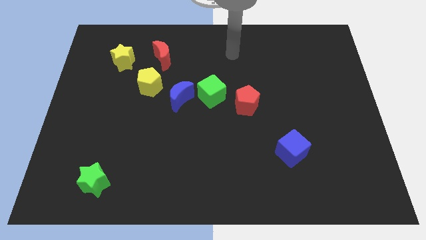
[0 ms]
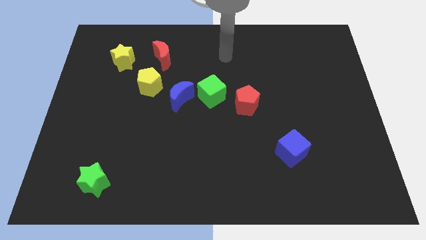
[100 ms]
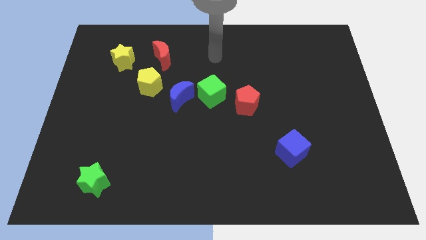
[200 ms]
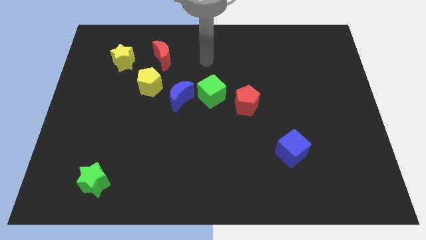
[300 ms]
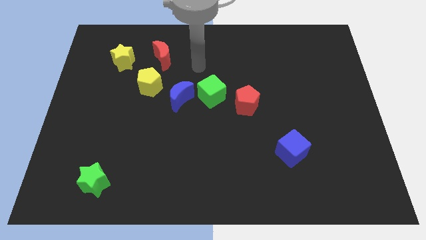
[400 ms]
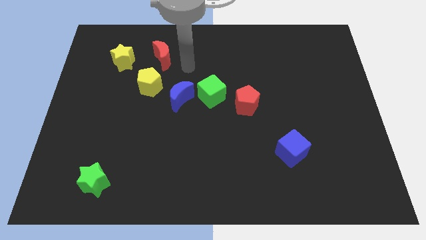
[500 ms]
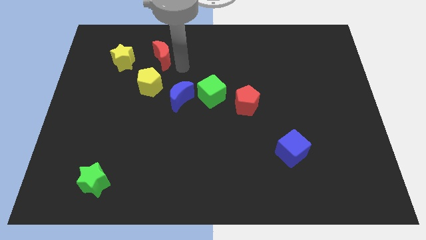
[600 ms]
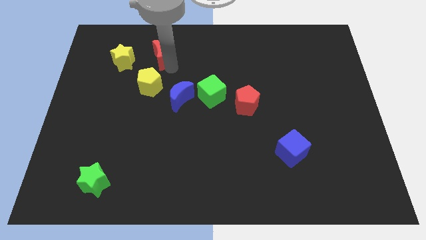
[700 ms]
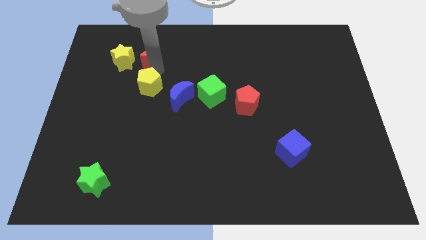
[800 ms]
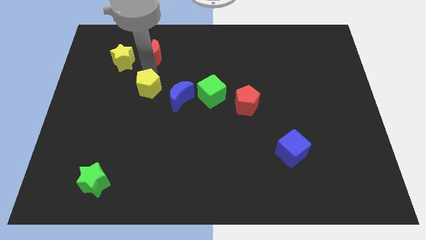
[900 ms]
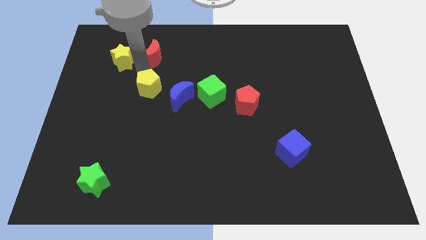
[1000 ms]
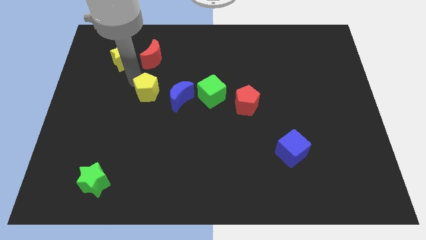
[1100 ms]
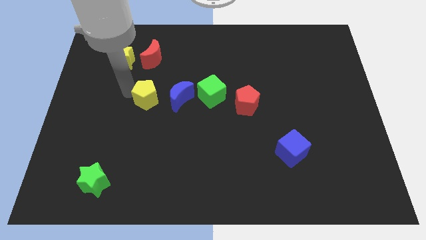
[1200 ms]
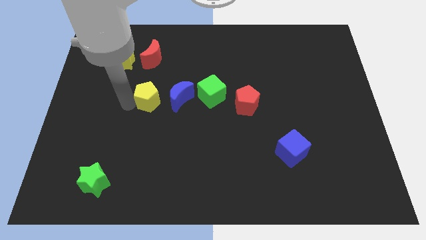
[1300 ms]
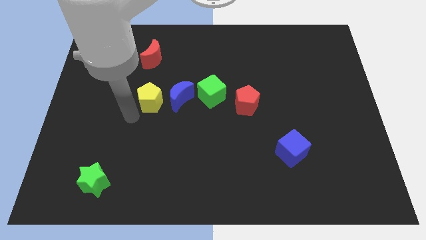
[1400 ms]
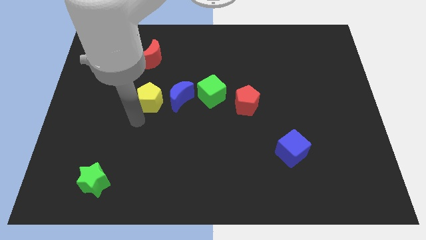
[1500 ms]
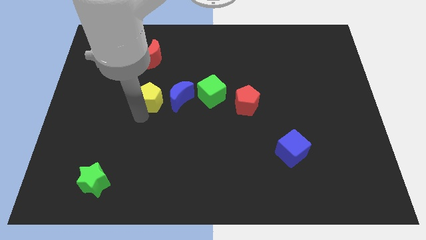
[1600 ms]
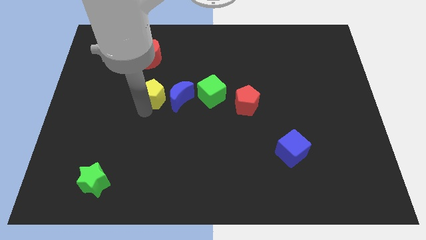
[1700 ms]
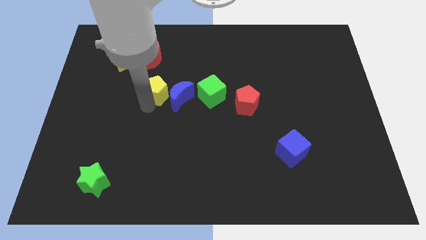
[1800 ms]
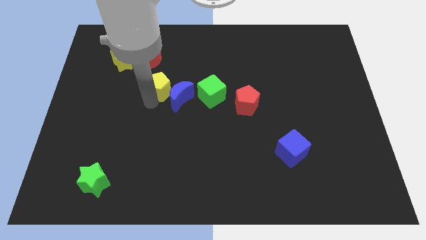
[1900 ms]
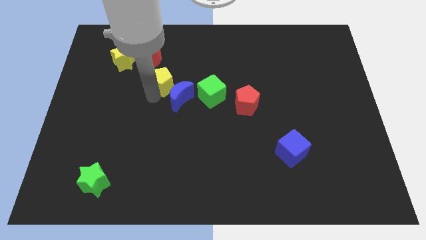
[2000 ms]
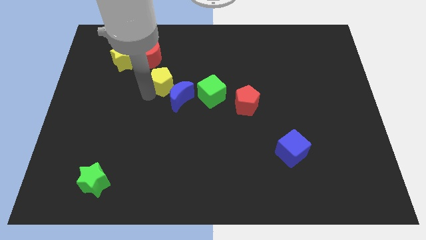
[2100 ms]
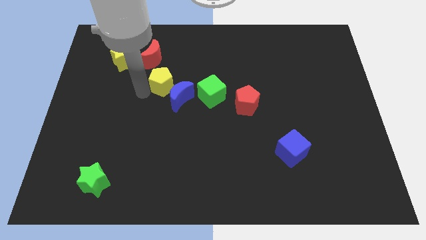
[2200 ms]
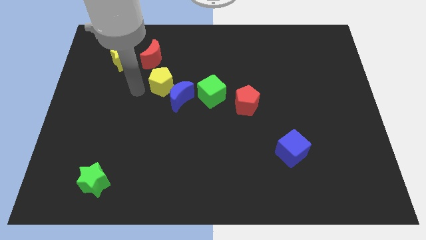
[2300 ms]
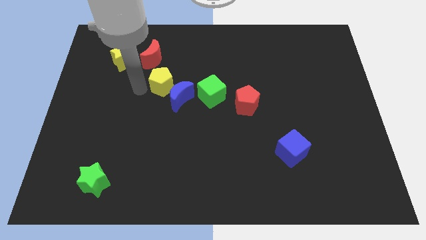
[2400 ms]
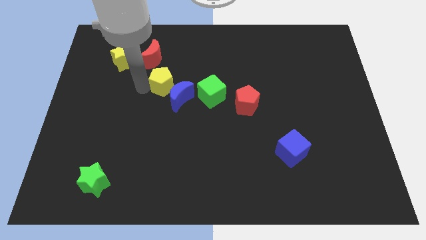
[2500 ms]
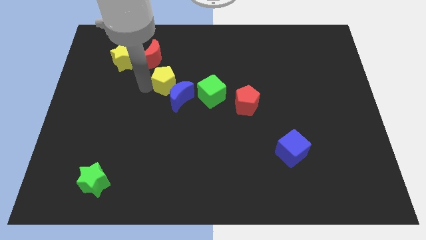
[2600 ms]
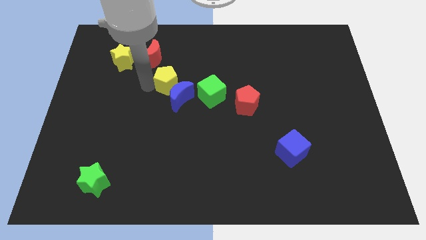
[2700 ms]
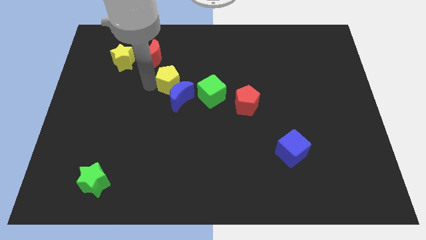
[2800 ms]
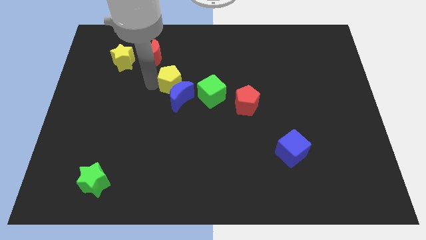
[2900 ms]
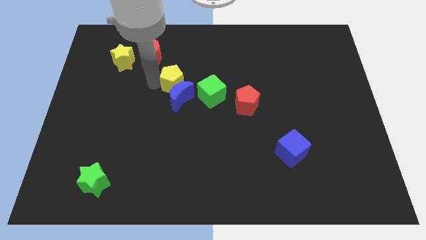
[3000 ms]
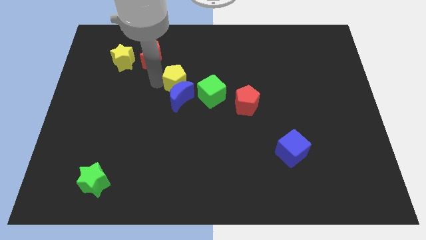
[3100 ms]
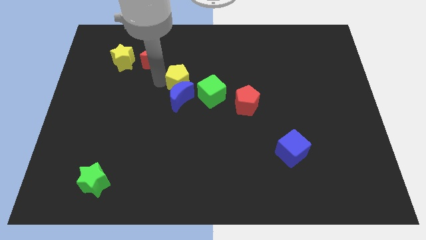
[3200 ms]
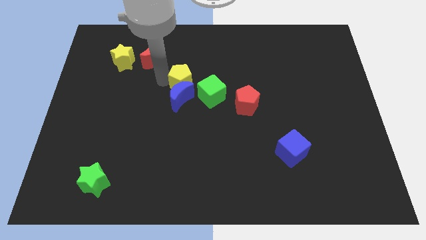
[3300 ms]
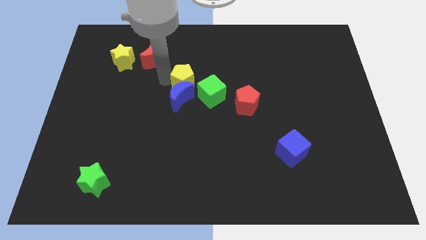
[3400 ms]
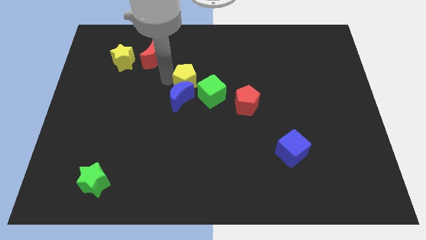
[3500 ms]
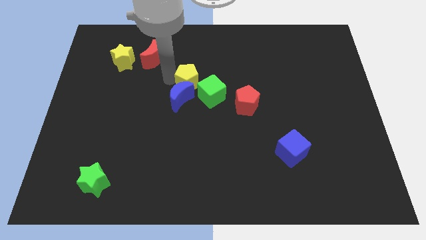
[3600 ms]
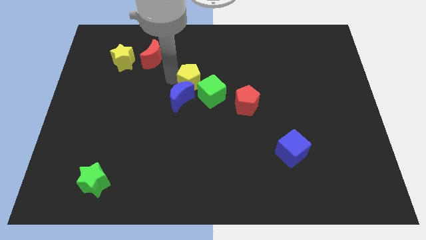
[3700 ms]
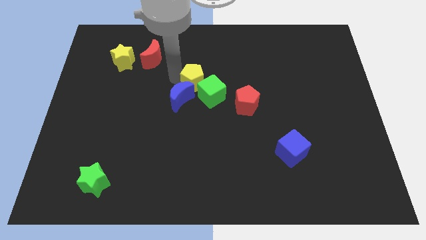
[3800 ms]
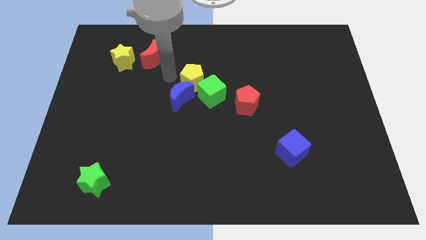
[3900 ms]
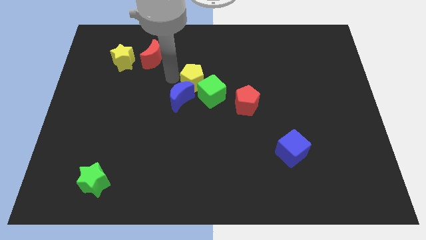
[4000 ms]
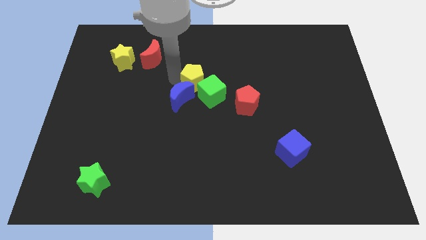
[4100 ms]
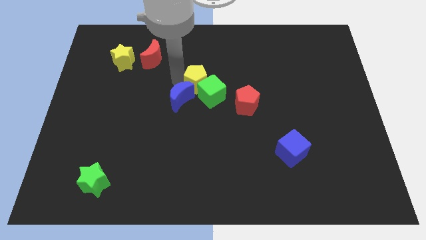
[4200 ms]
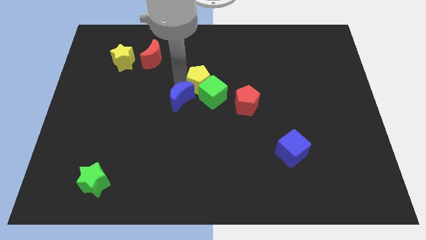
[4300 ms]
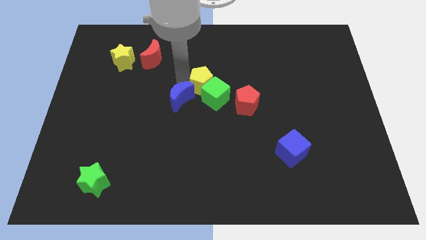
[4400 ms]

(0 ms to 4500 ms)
move the yellow pentagon to the top left side of the red pentagon

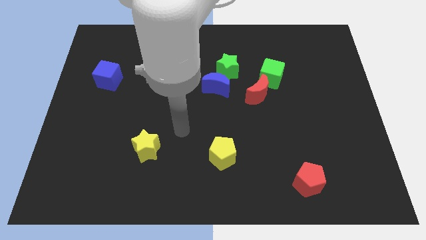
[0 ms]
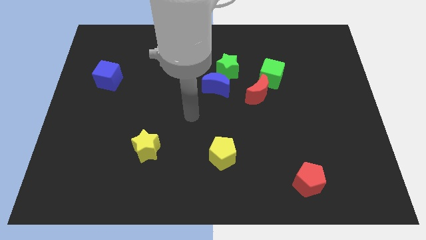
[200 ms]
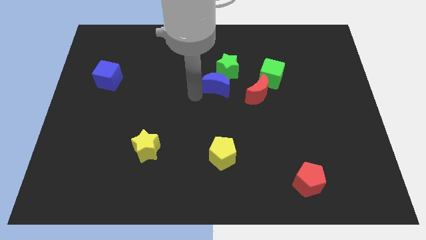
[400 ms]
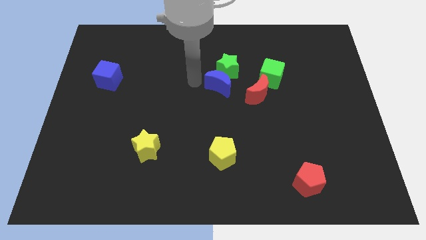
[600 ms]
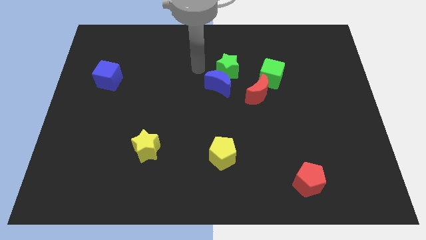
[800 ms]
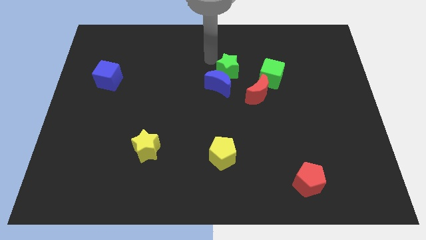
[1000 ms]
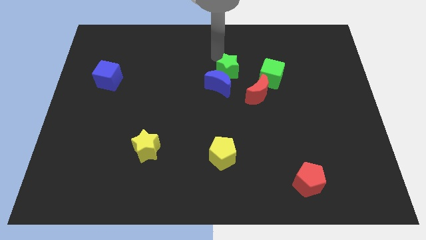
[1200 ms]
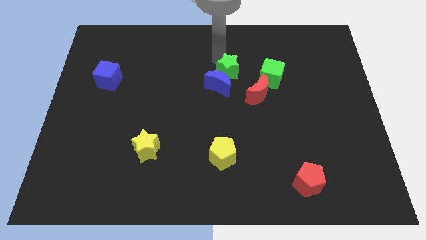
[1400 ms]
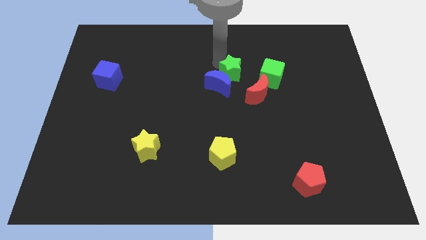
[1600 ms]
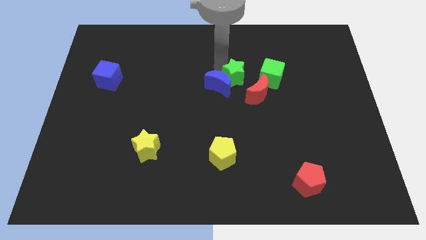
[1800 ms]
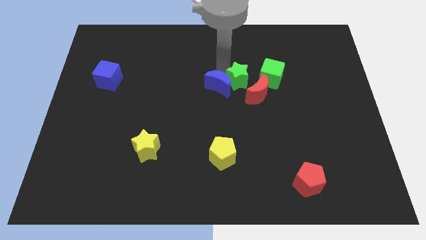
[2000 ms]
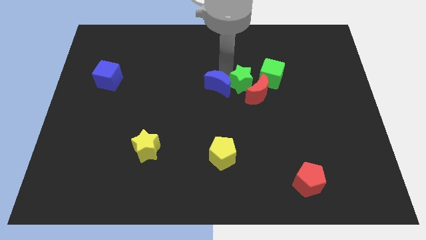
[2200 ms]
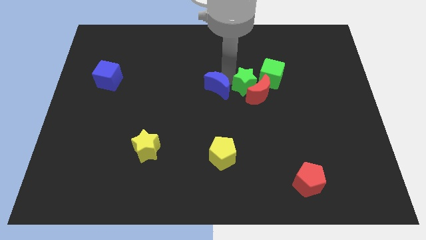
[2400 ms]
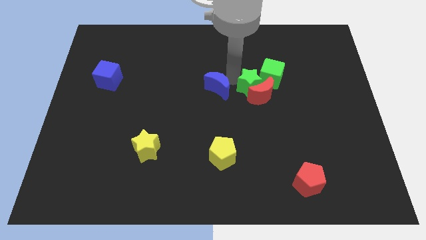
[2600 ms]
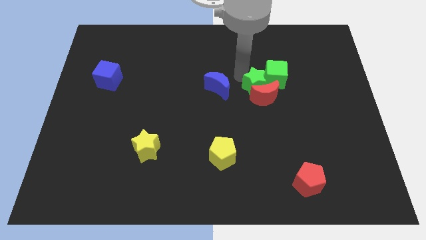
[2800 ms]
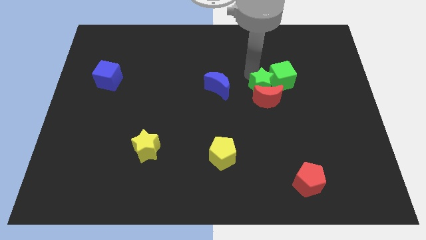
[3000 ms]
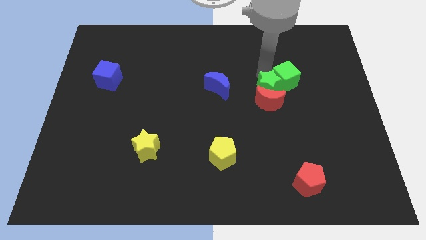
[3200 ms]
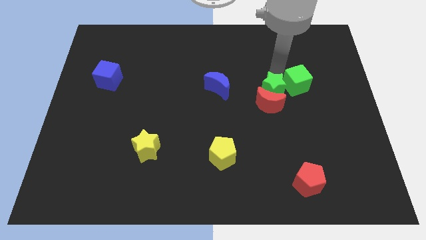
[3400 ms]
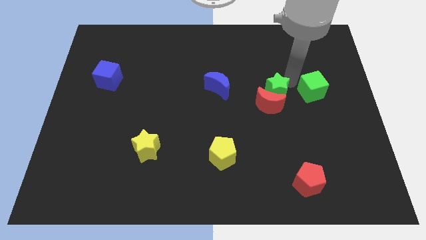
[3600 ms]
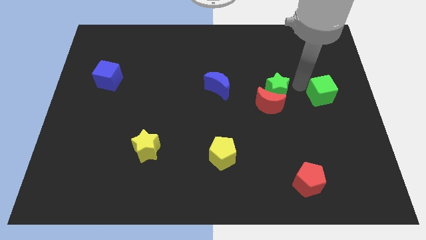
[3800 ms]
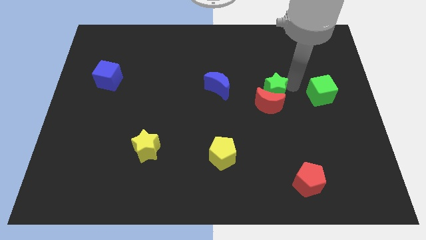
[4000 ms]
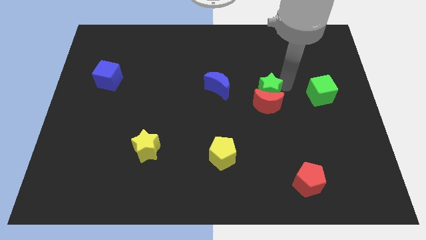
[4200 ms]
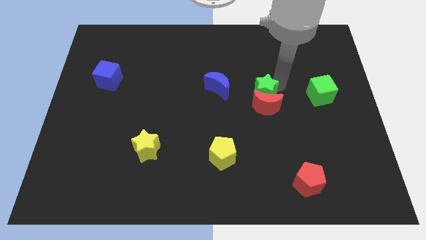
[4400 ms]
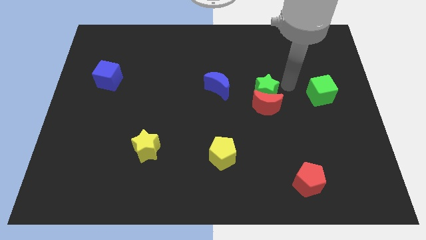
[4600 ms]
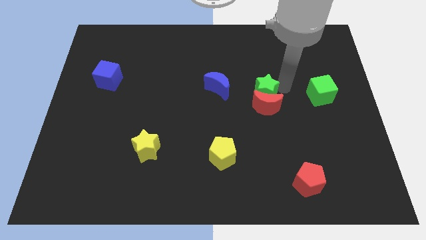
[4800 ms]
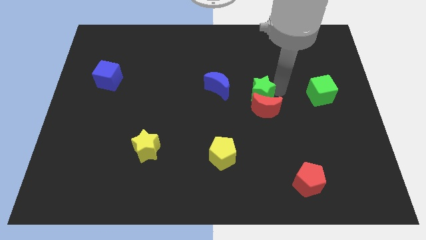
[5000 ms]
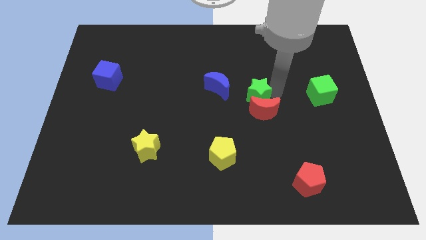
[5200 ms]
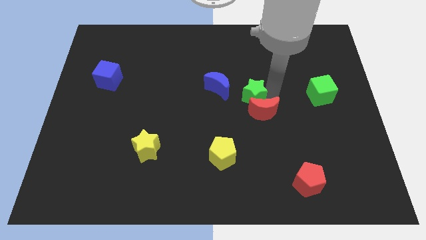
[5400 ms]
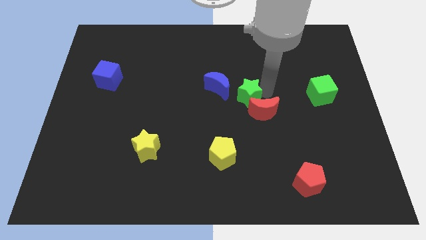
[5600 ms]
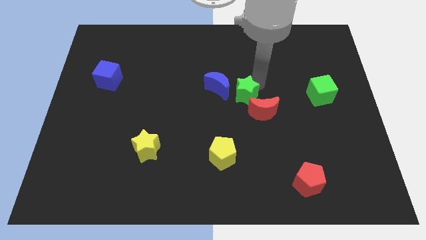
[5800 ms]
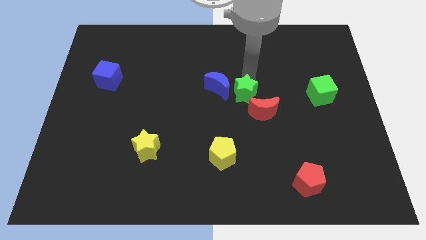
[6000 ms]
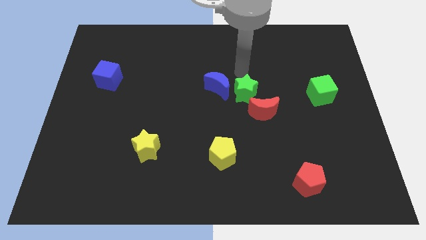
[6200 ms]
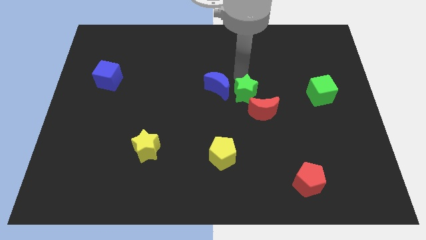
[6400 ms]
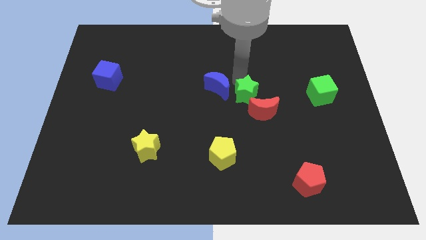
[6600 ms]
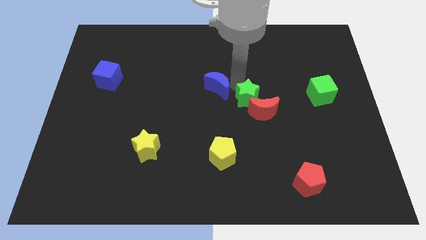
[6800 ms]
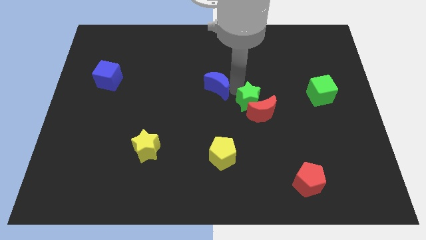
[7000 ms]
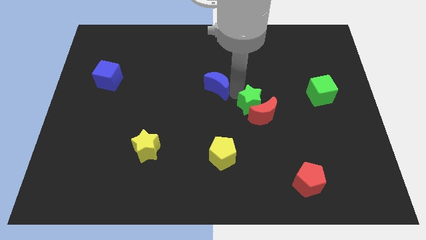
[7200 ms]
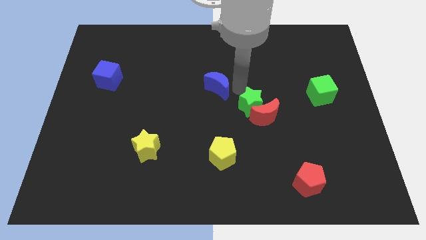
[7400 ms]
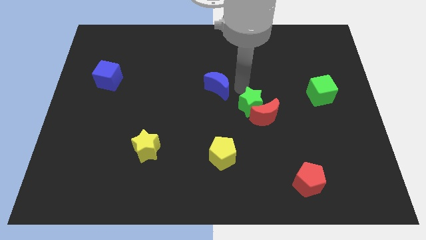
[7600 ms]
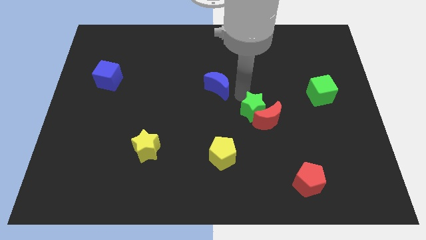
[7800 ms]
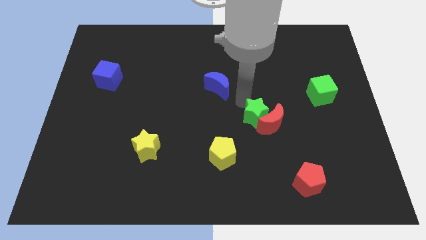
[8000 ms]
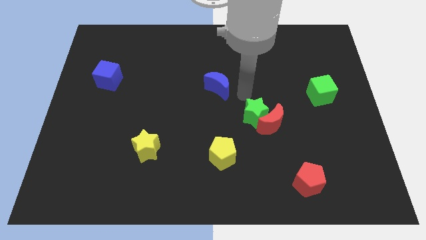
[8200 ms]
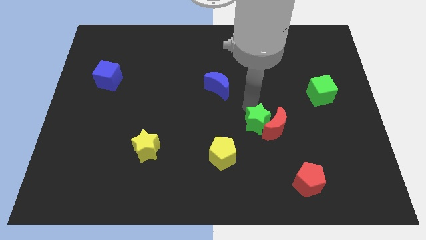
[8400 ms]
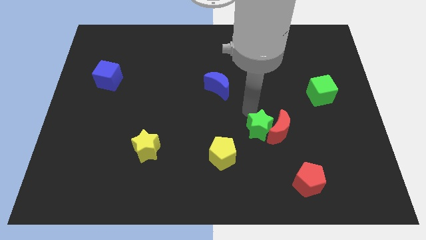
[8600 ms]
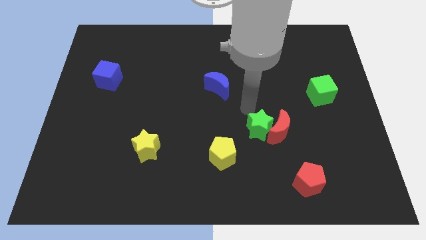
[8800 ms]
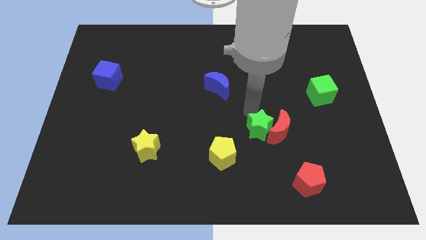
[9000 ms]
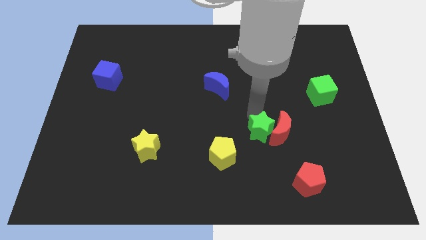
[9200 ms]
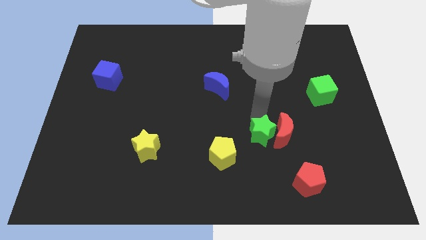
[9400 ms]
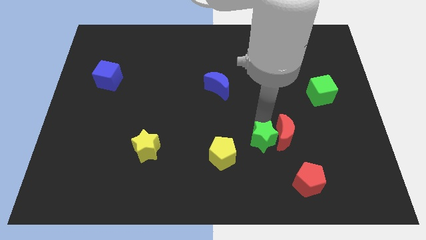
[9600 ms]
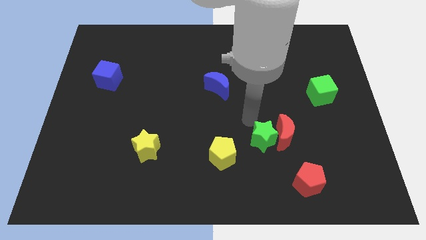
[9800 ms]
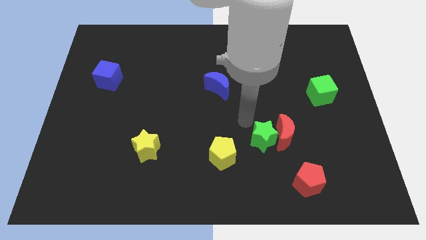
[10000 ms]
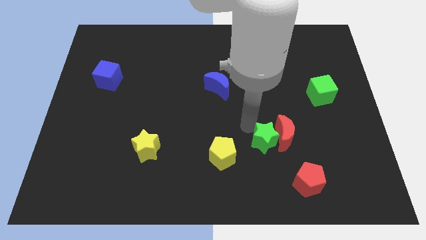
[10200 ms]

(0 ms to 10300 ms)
slide the green star to the top left side of the red pentagon
